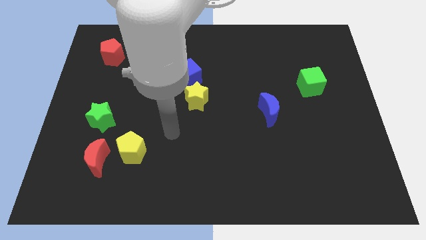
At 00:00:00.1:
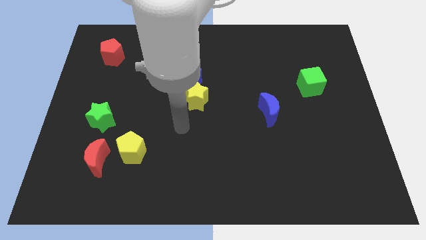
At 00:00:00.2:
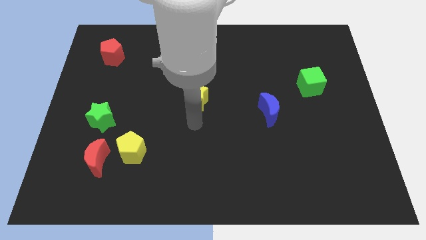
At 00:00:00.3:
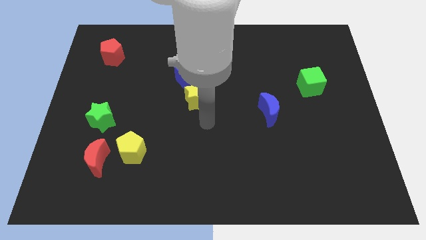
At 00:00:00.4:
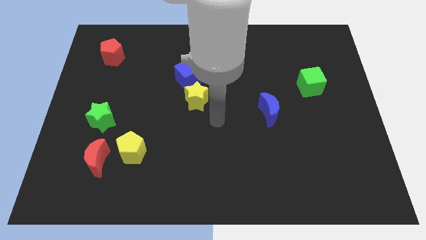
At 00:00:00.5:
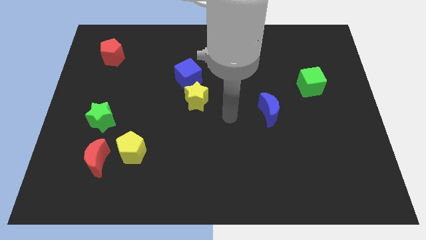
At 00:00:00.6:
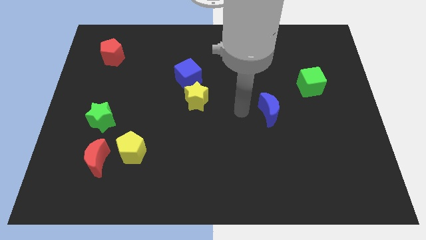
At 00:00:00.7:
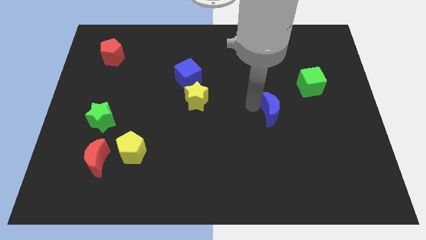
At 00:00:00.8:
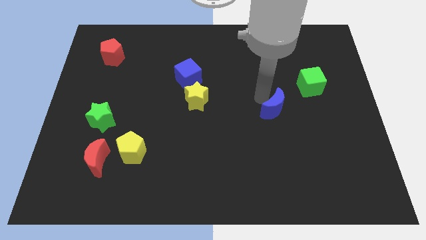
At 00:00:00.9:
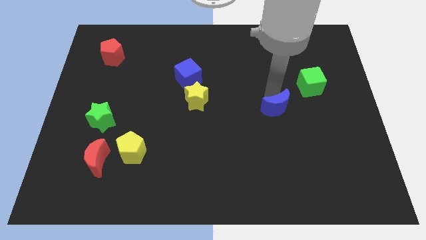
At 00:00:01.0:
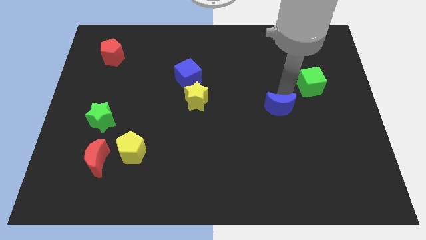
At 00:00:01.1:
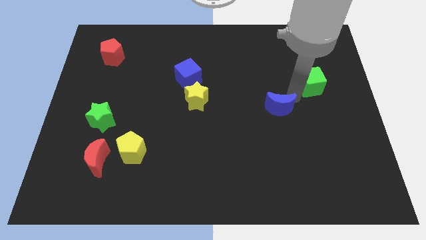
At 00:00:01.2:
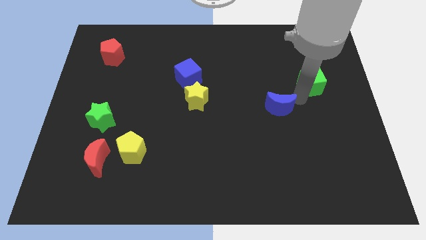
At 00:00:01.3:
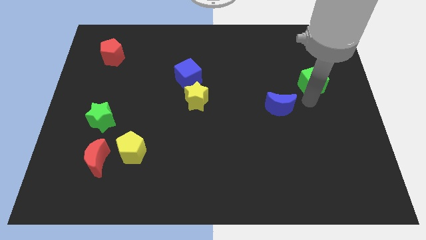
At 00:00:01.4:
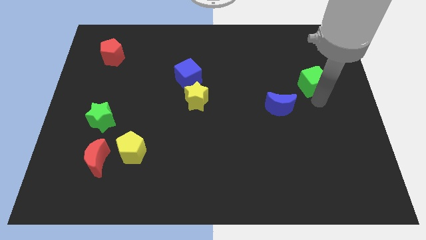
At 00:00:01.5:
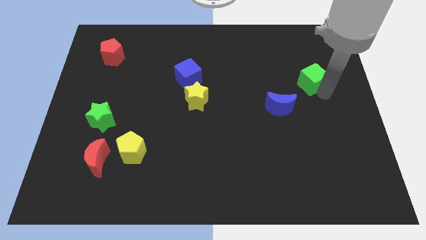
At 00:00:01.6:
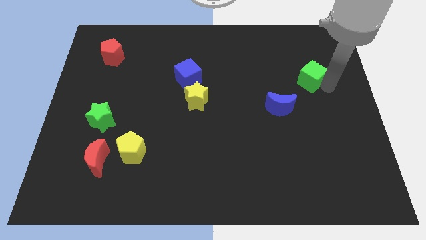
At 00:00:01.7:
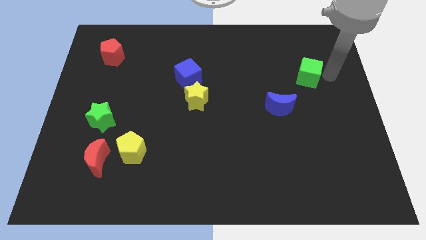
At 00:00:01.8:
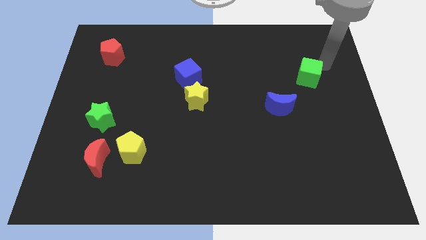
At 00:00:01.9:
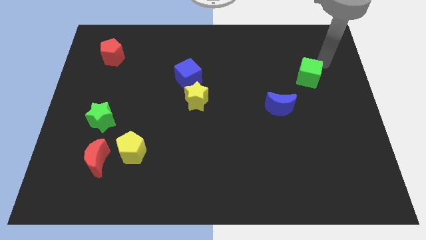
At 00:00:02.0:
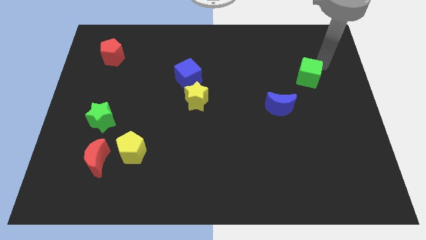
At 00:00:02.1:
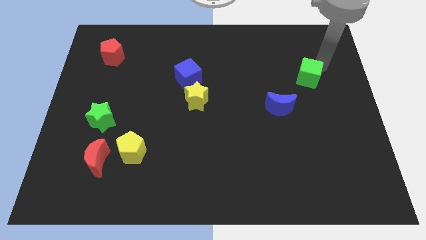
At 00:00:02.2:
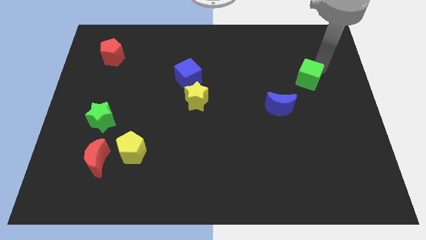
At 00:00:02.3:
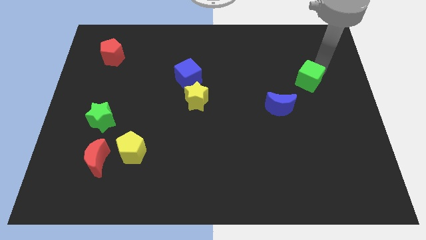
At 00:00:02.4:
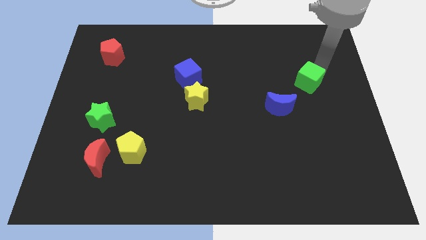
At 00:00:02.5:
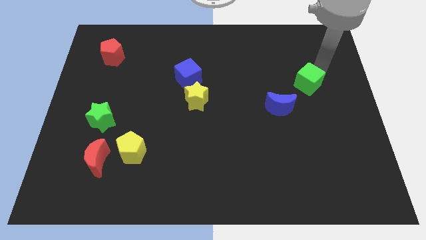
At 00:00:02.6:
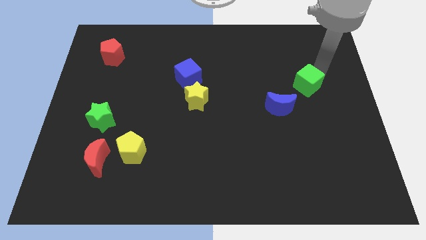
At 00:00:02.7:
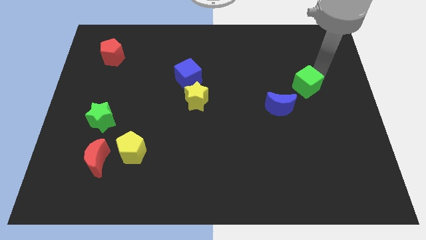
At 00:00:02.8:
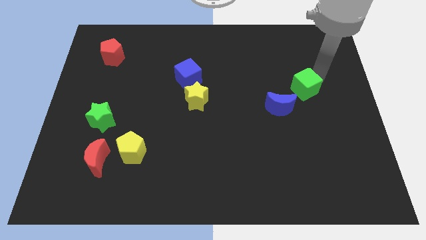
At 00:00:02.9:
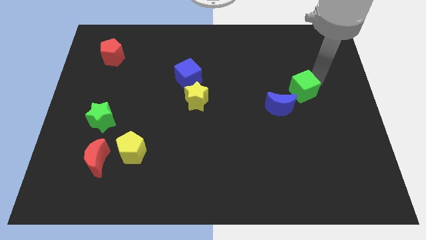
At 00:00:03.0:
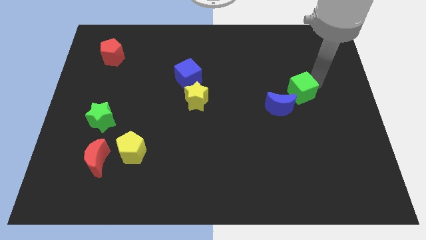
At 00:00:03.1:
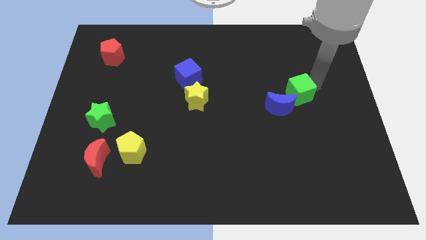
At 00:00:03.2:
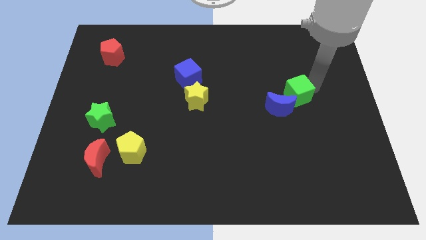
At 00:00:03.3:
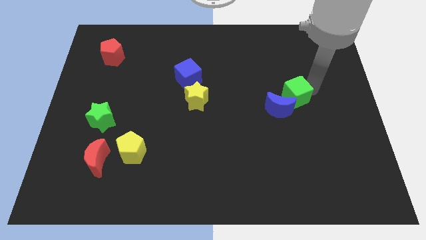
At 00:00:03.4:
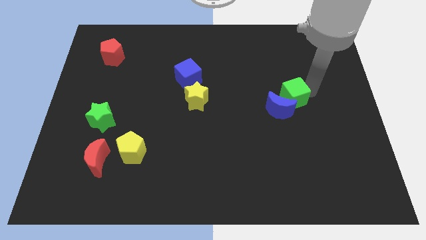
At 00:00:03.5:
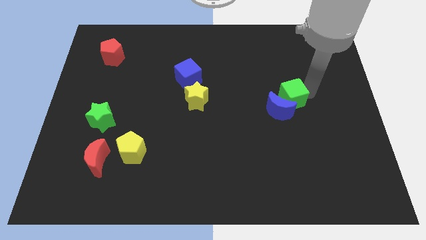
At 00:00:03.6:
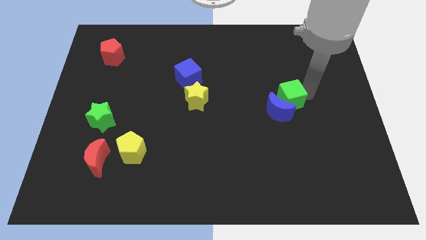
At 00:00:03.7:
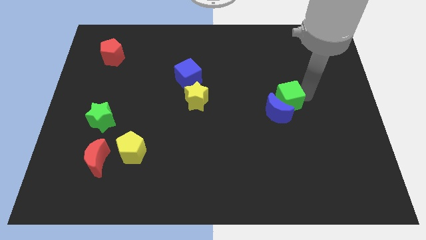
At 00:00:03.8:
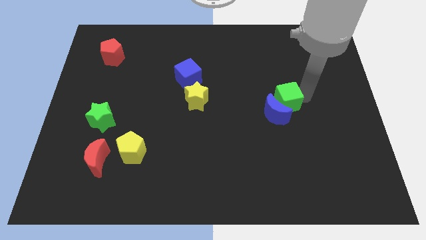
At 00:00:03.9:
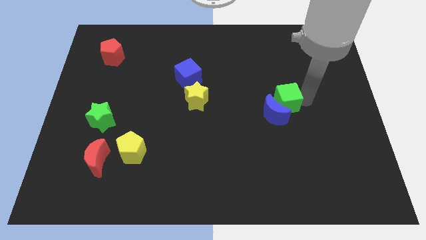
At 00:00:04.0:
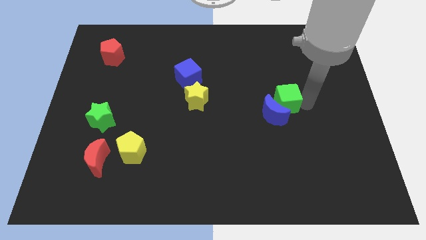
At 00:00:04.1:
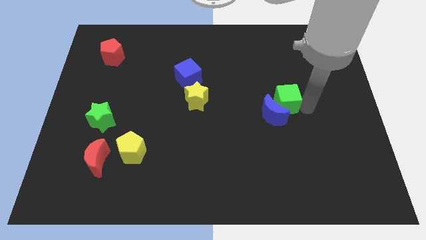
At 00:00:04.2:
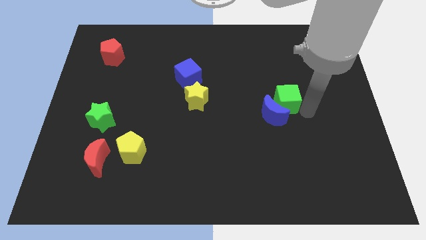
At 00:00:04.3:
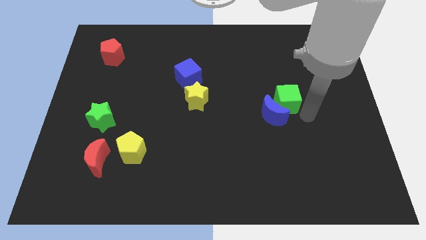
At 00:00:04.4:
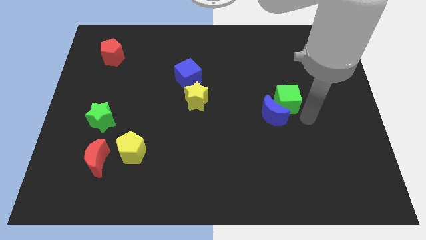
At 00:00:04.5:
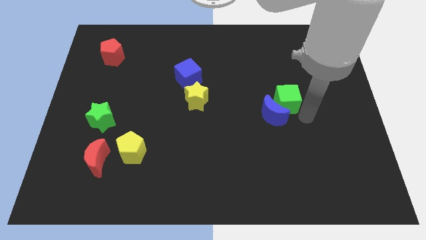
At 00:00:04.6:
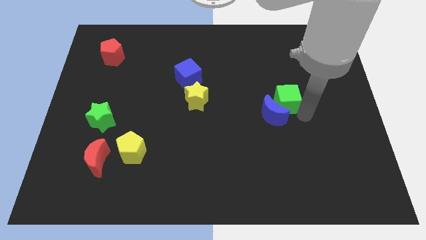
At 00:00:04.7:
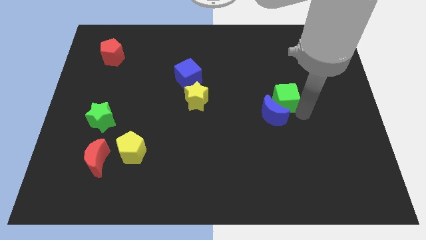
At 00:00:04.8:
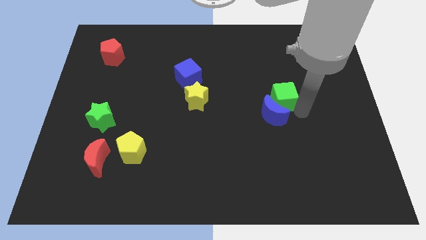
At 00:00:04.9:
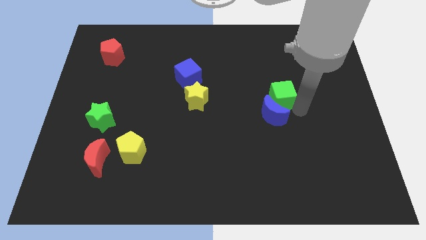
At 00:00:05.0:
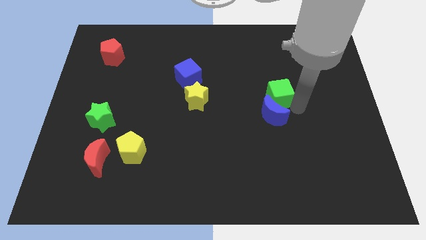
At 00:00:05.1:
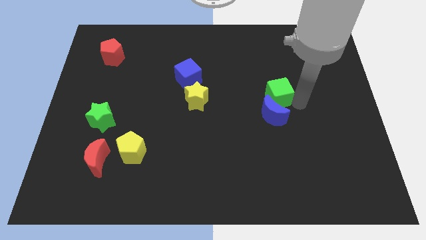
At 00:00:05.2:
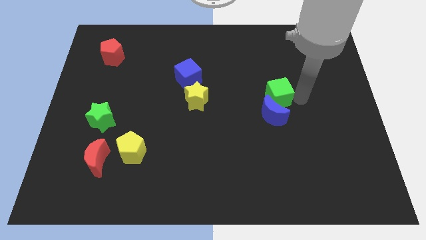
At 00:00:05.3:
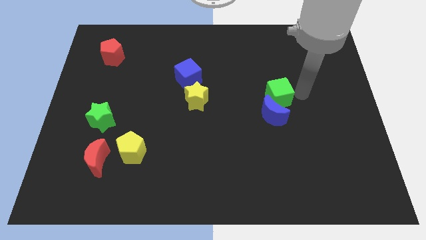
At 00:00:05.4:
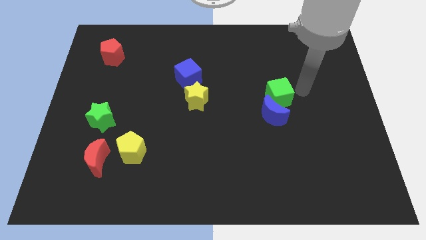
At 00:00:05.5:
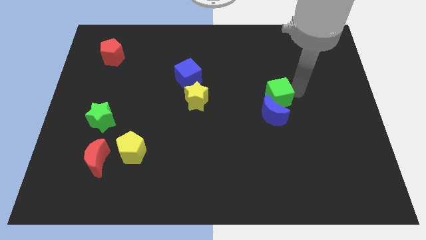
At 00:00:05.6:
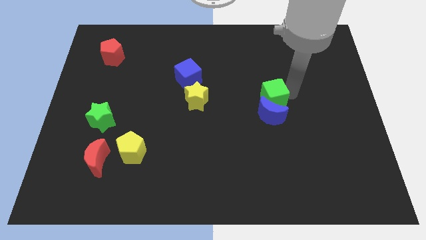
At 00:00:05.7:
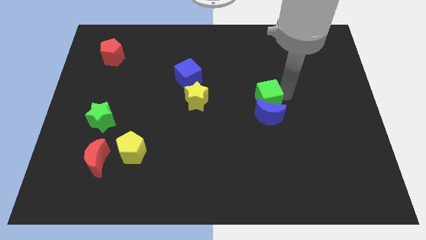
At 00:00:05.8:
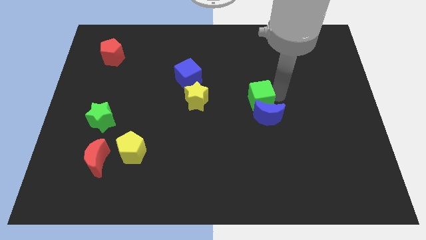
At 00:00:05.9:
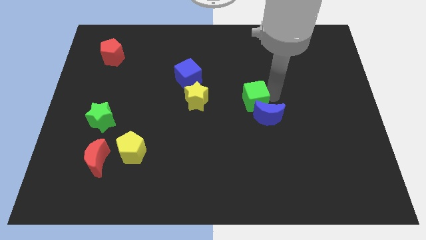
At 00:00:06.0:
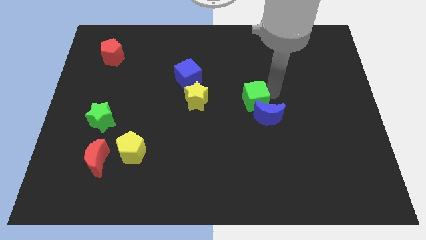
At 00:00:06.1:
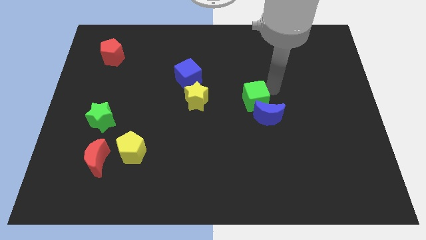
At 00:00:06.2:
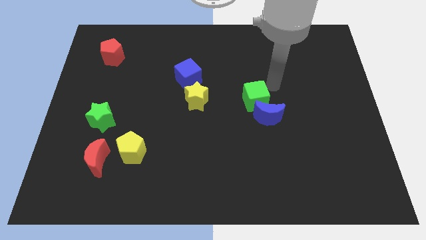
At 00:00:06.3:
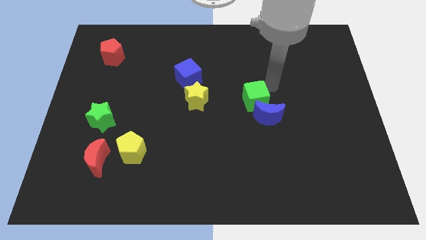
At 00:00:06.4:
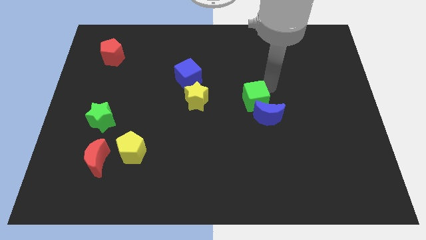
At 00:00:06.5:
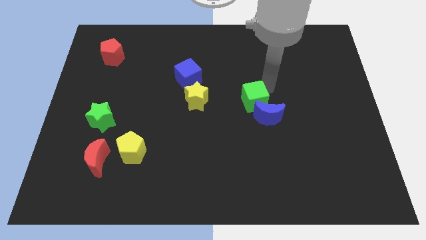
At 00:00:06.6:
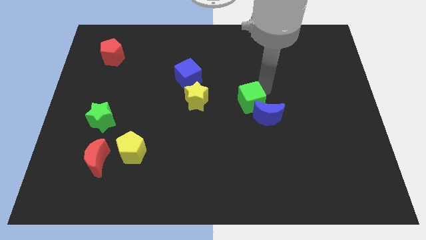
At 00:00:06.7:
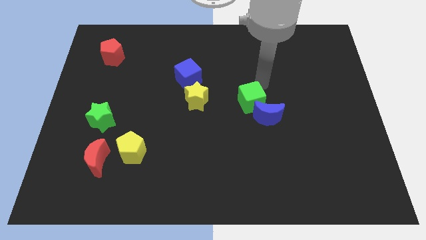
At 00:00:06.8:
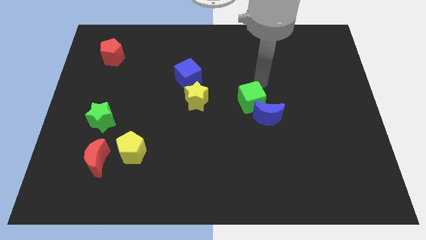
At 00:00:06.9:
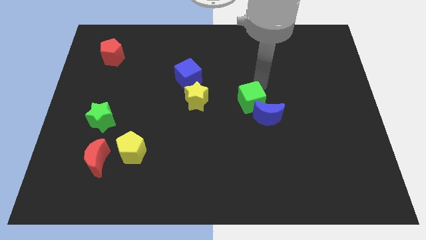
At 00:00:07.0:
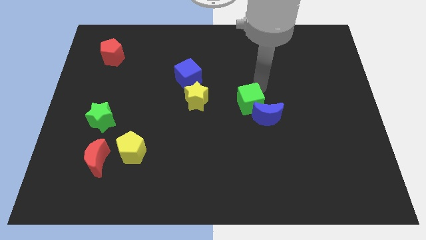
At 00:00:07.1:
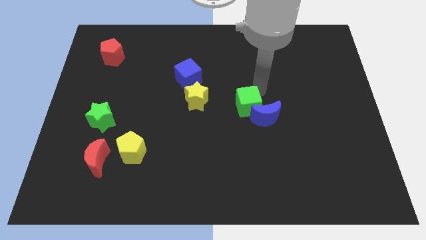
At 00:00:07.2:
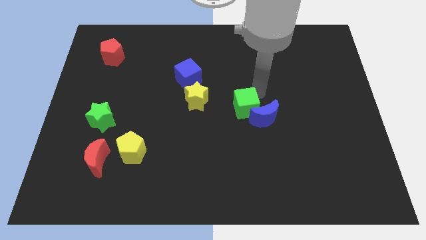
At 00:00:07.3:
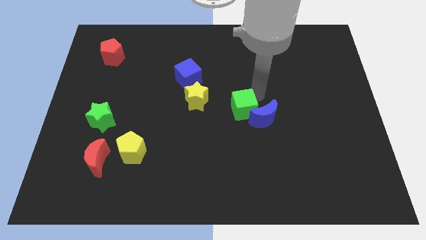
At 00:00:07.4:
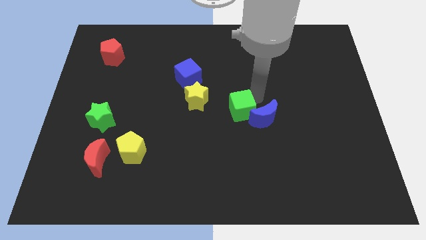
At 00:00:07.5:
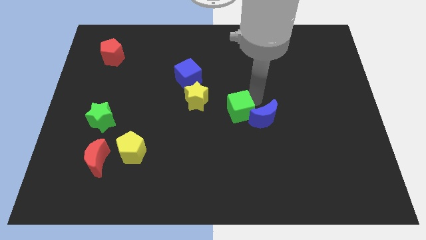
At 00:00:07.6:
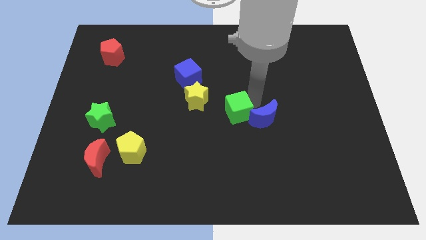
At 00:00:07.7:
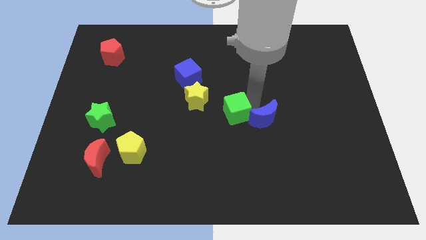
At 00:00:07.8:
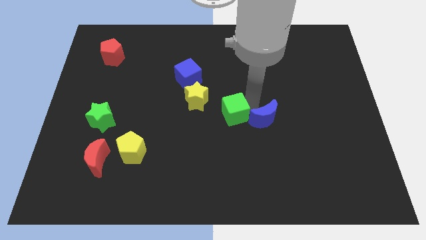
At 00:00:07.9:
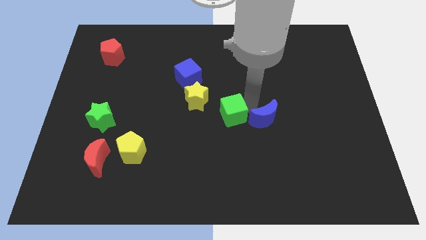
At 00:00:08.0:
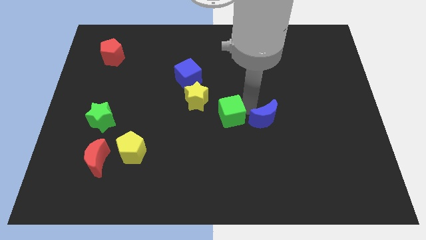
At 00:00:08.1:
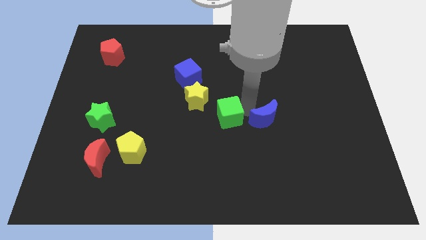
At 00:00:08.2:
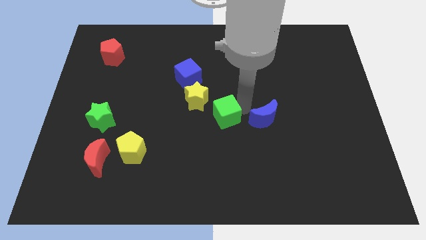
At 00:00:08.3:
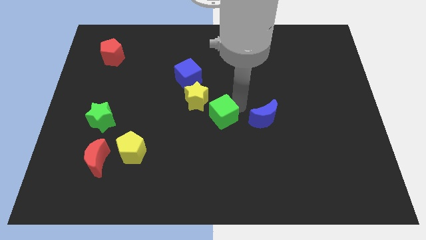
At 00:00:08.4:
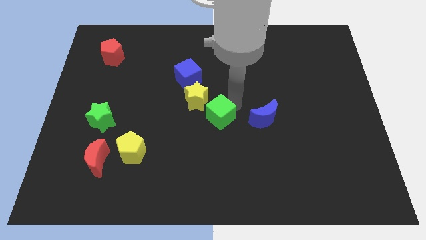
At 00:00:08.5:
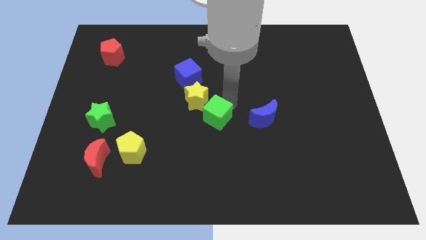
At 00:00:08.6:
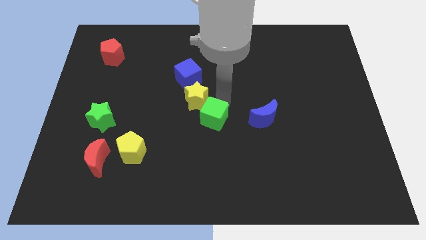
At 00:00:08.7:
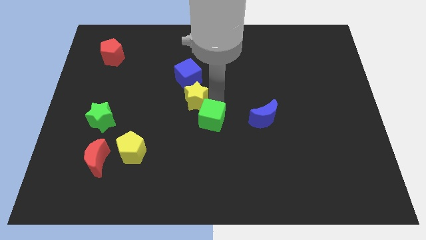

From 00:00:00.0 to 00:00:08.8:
move the green cube downwards and left diagonally
